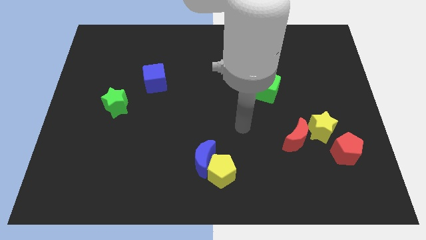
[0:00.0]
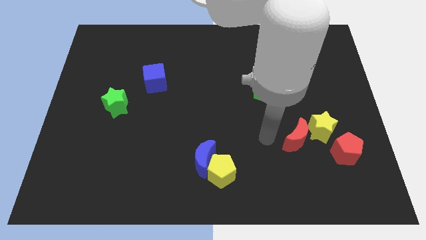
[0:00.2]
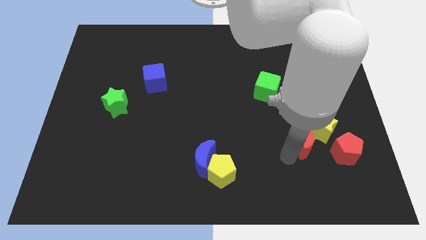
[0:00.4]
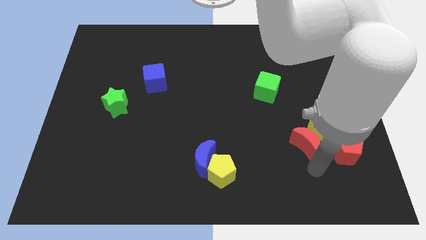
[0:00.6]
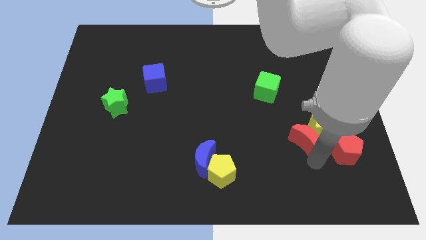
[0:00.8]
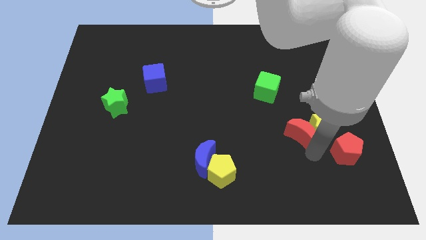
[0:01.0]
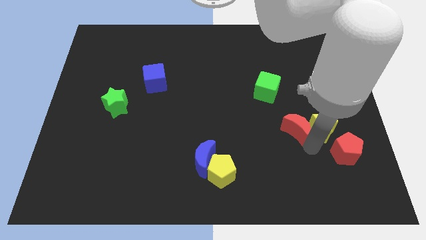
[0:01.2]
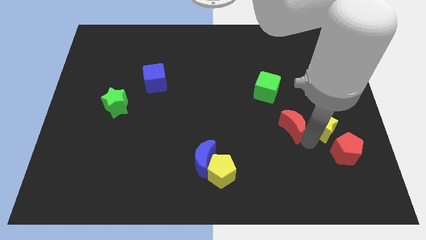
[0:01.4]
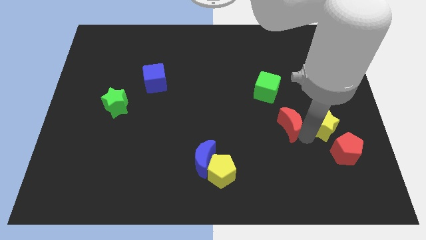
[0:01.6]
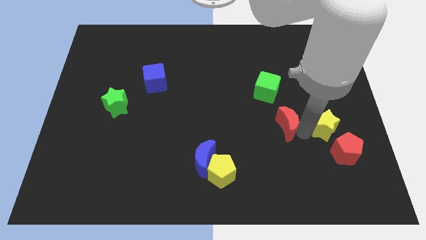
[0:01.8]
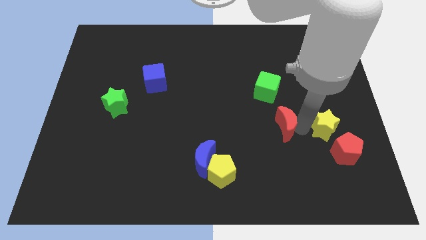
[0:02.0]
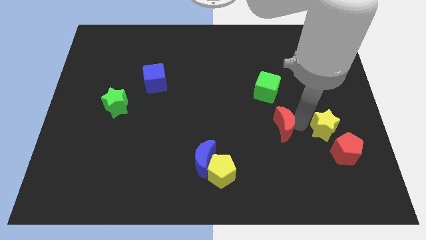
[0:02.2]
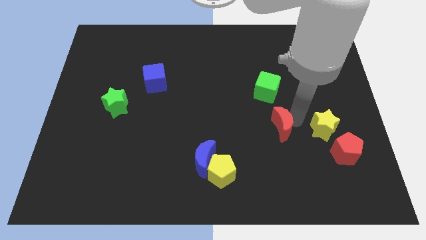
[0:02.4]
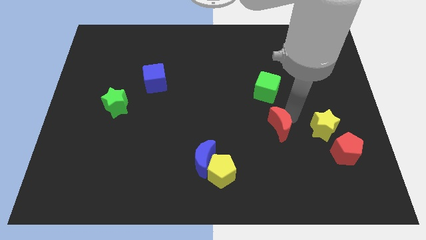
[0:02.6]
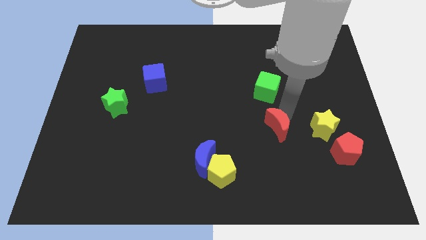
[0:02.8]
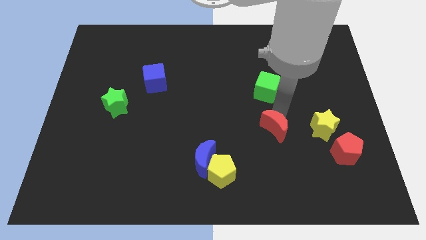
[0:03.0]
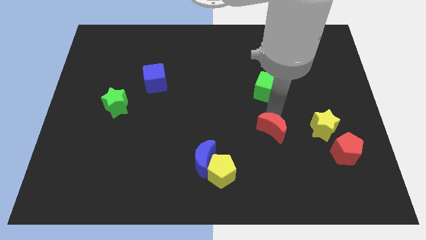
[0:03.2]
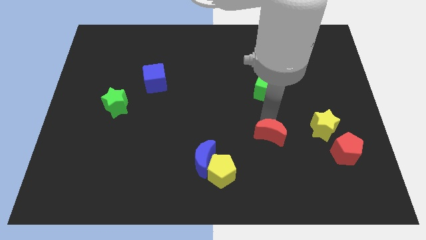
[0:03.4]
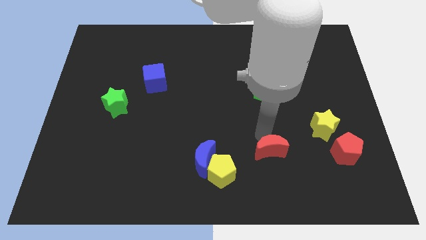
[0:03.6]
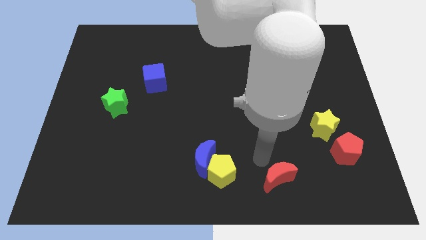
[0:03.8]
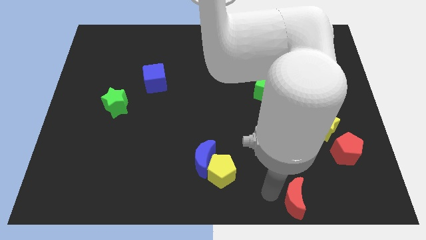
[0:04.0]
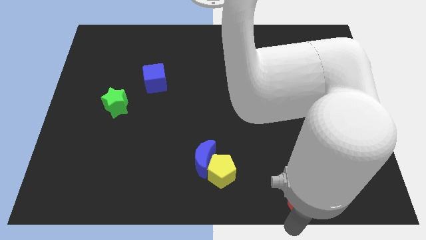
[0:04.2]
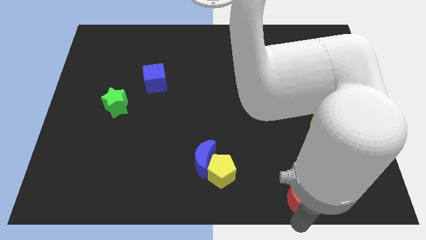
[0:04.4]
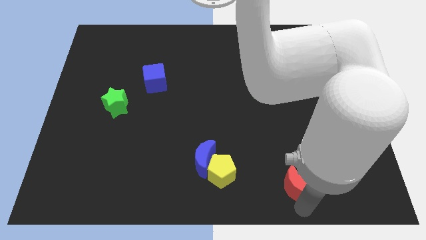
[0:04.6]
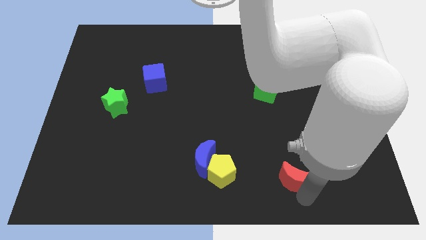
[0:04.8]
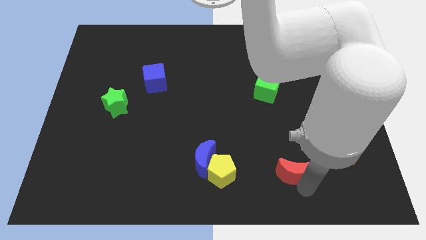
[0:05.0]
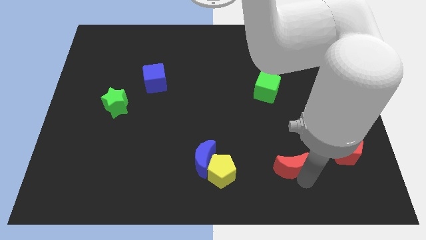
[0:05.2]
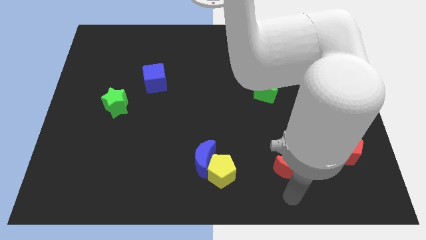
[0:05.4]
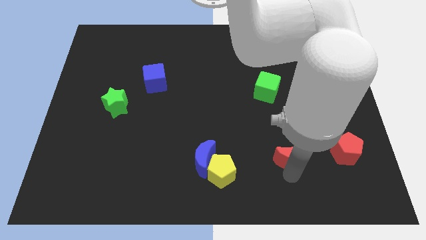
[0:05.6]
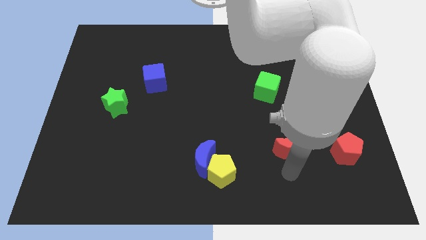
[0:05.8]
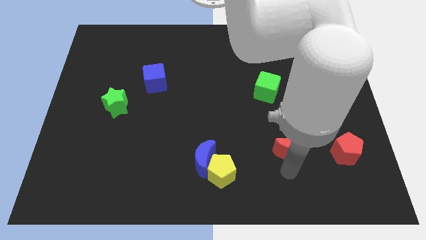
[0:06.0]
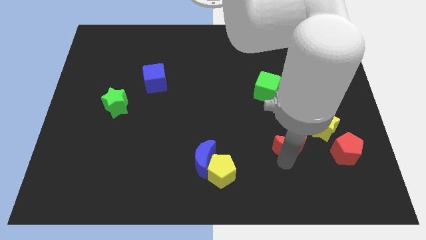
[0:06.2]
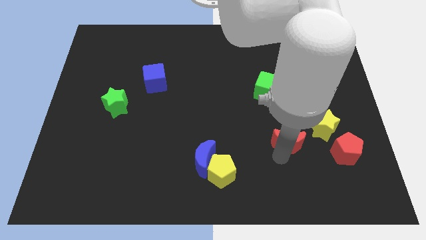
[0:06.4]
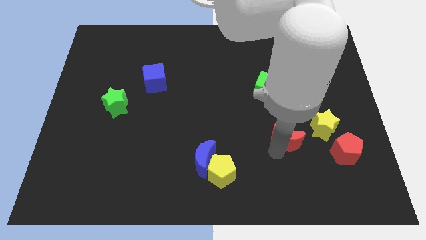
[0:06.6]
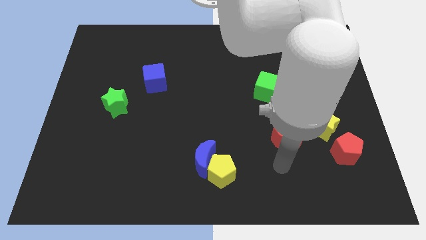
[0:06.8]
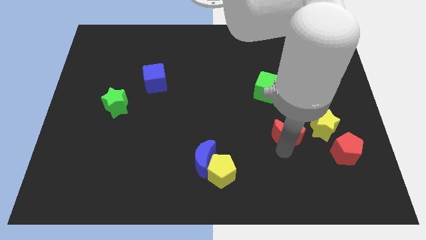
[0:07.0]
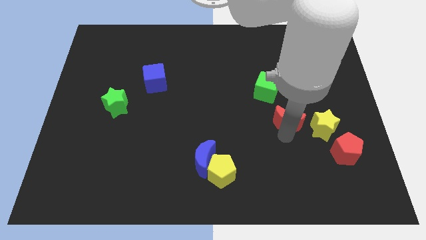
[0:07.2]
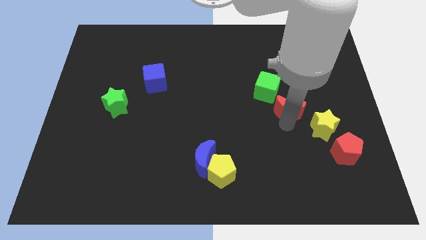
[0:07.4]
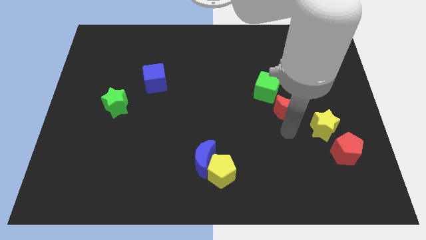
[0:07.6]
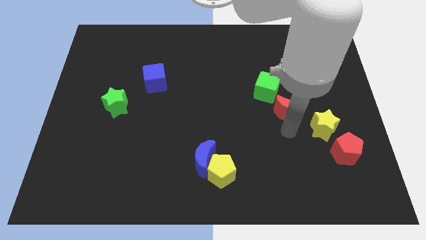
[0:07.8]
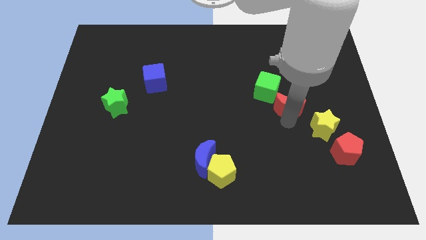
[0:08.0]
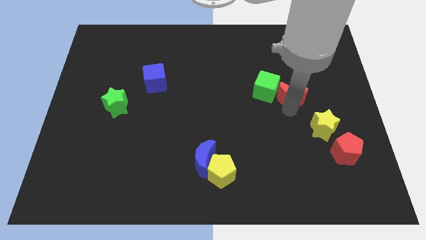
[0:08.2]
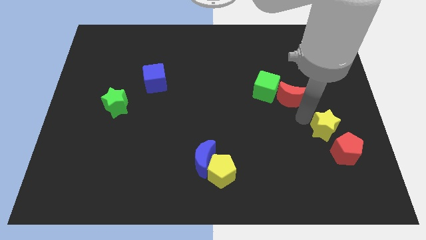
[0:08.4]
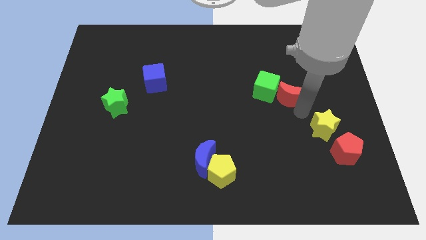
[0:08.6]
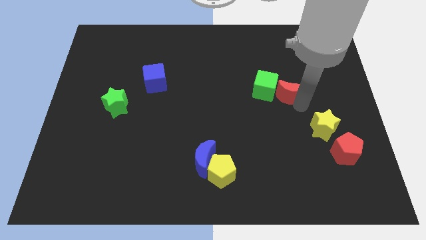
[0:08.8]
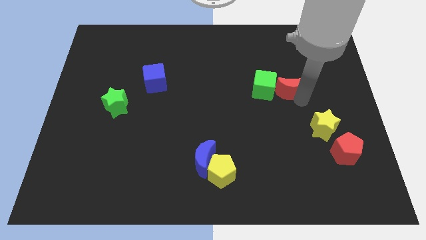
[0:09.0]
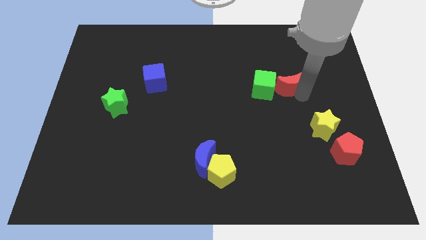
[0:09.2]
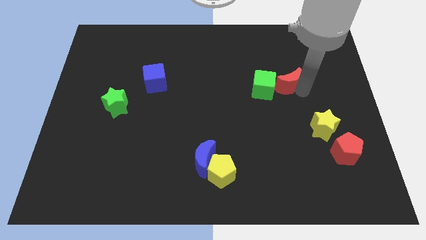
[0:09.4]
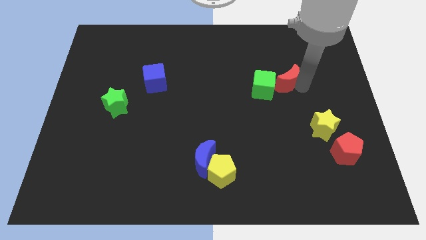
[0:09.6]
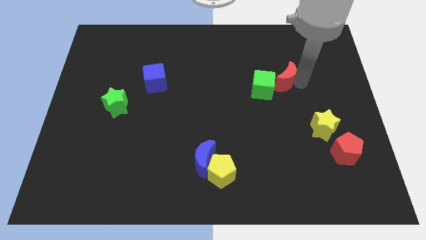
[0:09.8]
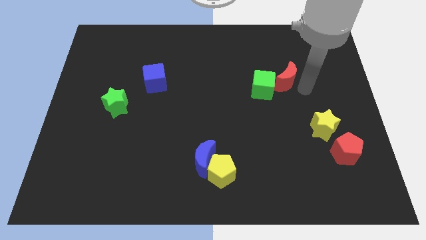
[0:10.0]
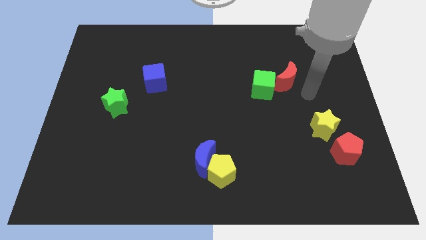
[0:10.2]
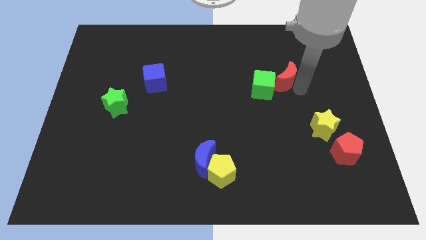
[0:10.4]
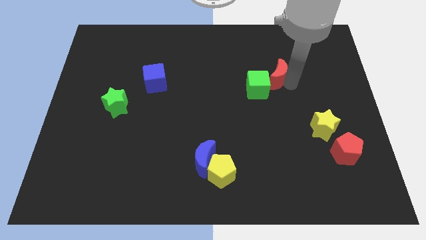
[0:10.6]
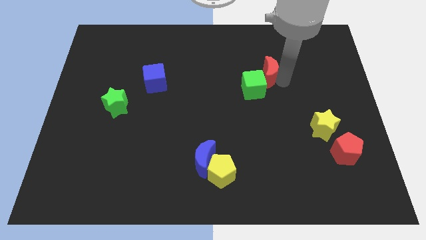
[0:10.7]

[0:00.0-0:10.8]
push the red moon above the green cube

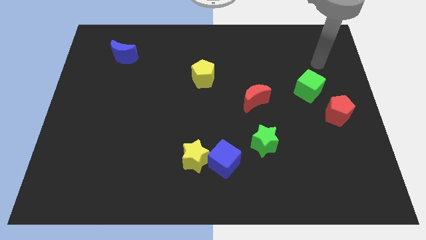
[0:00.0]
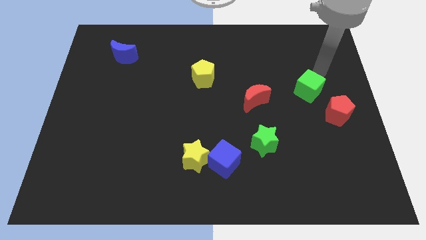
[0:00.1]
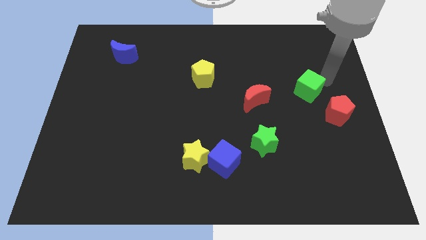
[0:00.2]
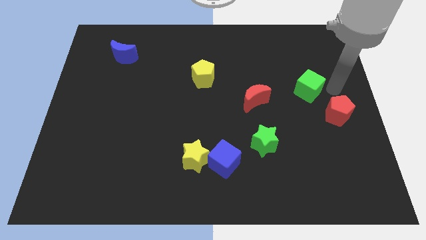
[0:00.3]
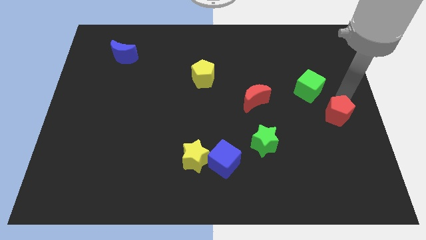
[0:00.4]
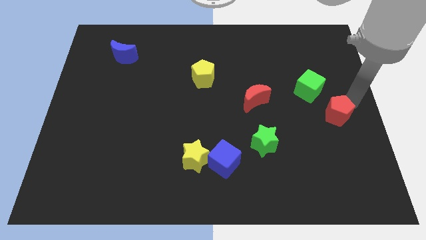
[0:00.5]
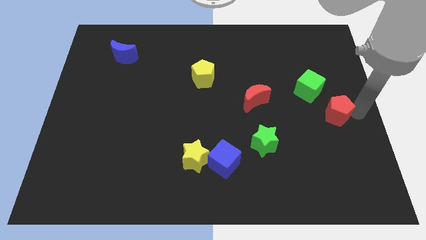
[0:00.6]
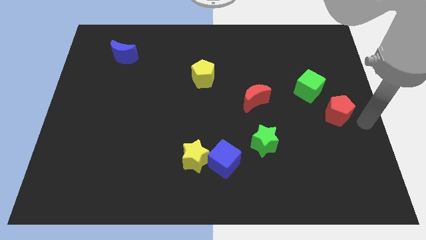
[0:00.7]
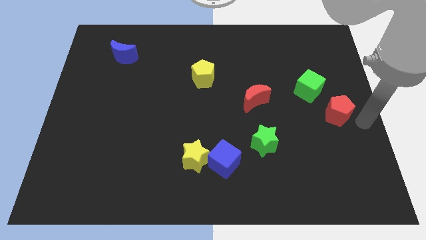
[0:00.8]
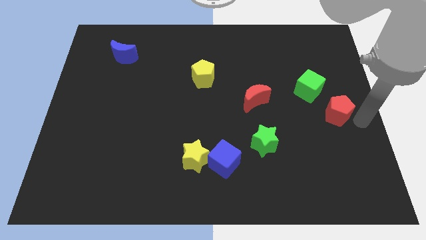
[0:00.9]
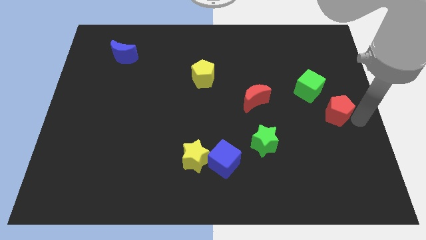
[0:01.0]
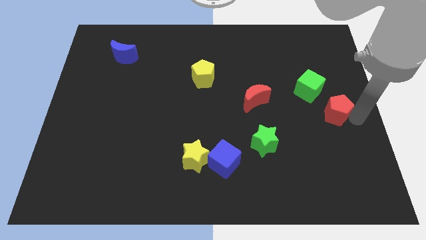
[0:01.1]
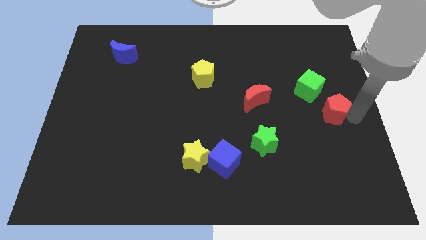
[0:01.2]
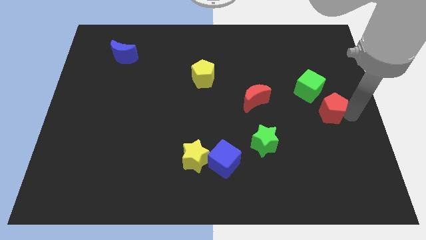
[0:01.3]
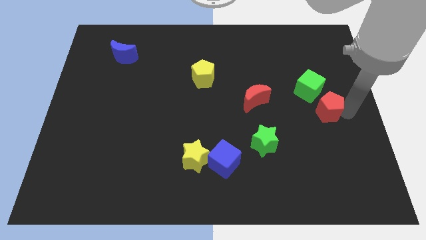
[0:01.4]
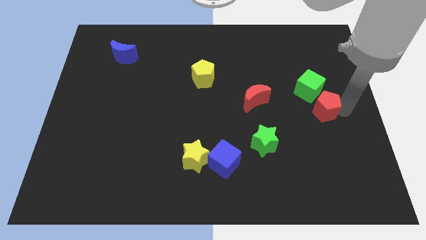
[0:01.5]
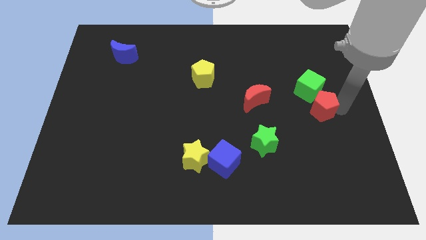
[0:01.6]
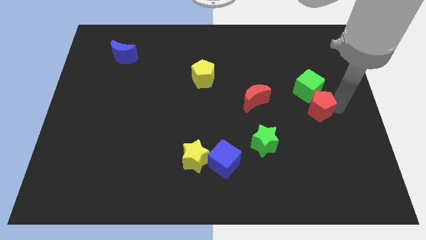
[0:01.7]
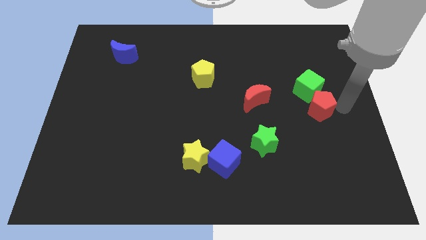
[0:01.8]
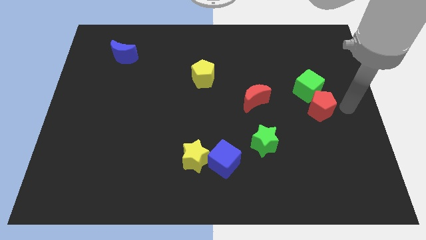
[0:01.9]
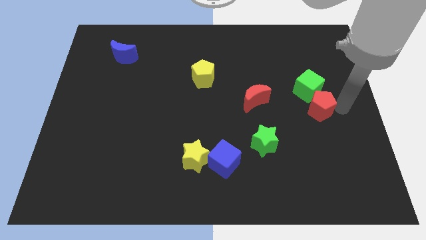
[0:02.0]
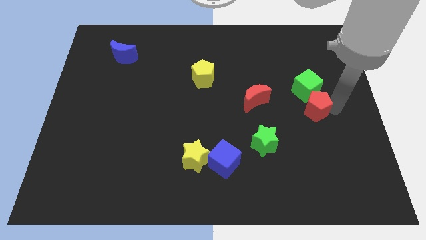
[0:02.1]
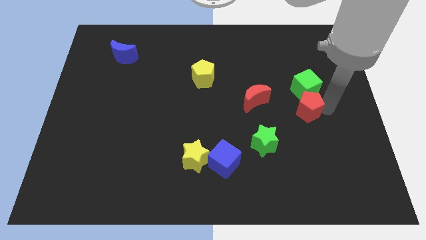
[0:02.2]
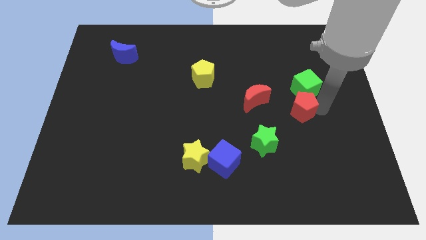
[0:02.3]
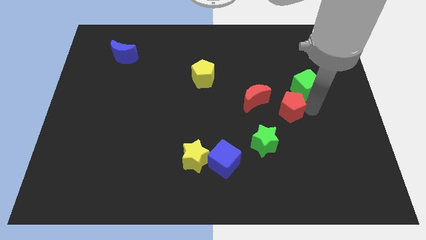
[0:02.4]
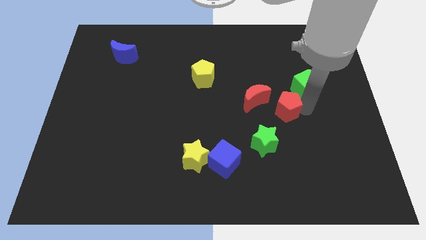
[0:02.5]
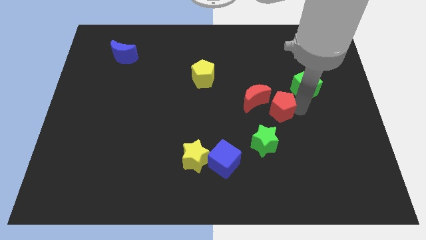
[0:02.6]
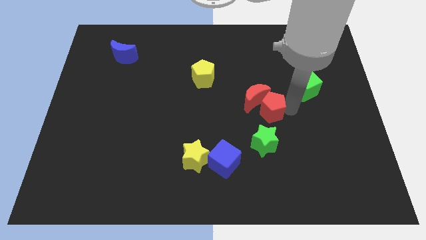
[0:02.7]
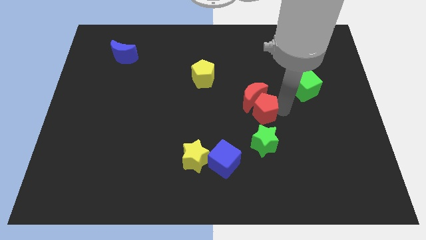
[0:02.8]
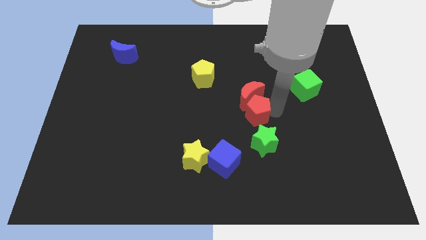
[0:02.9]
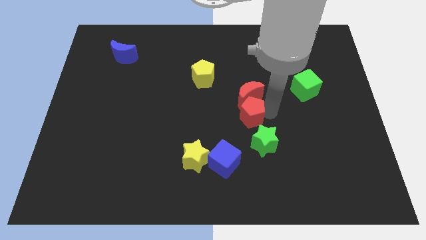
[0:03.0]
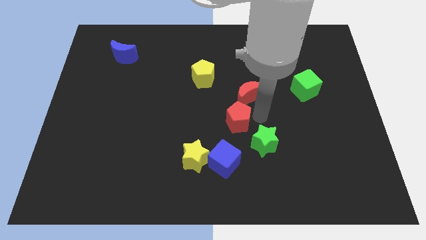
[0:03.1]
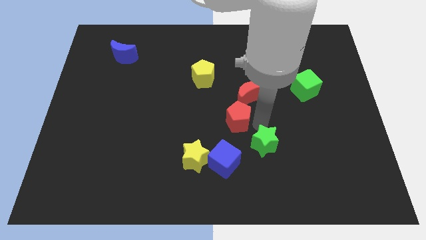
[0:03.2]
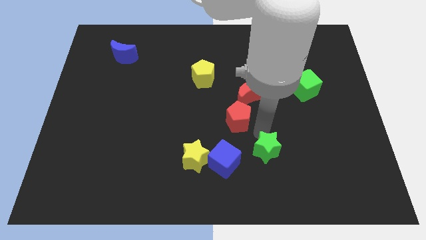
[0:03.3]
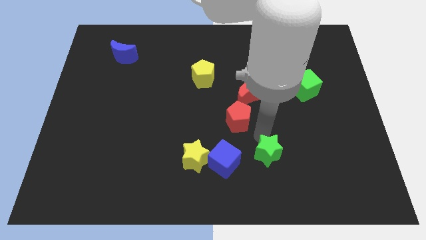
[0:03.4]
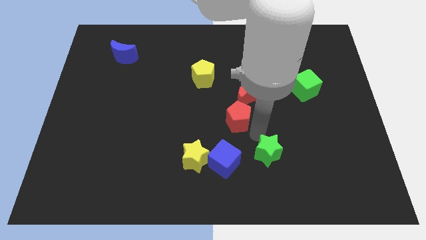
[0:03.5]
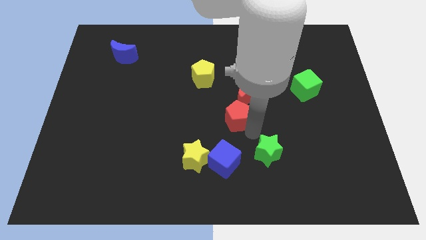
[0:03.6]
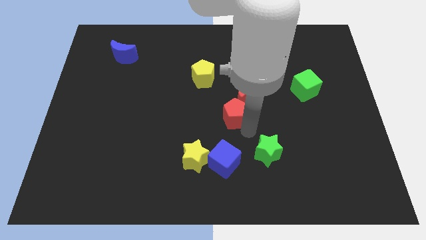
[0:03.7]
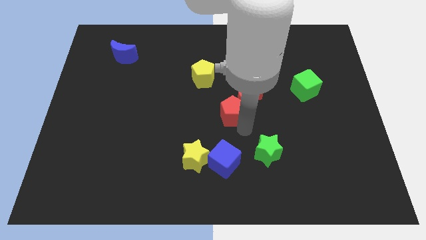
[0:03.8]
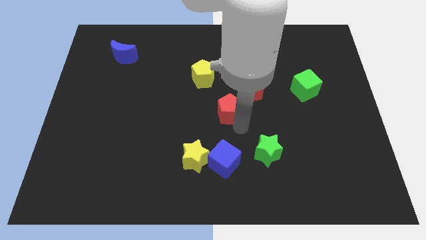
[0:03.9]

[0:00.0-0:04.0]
put the red pentagon to the left side of the red moon
